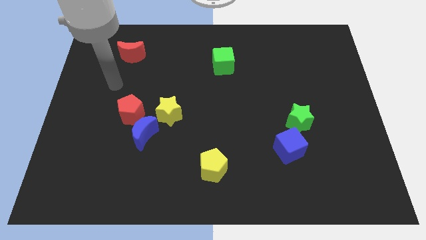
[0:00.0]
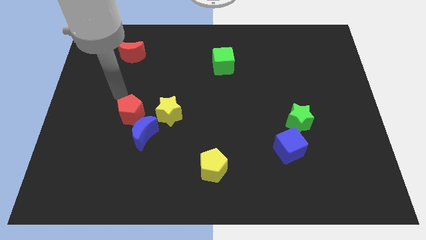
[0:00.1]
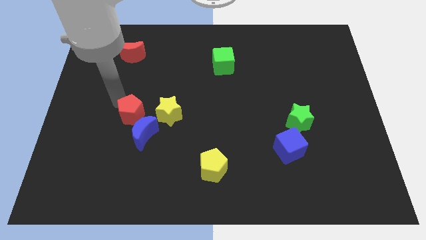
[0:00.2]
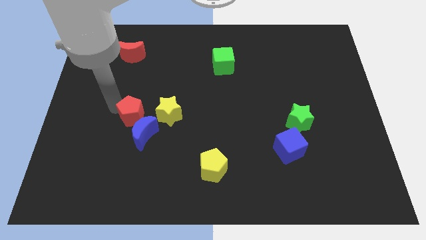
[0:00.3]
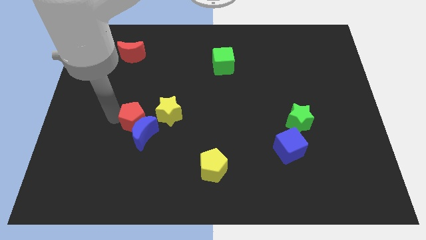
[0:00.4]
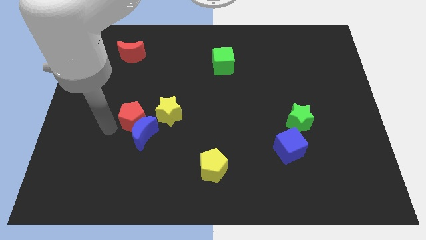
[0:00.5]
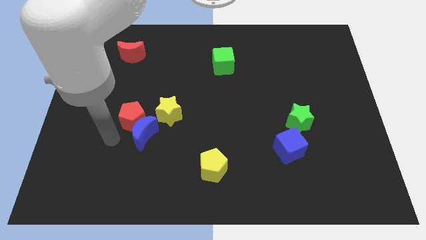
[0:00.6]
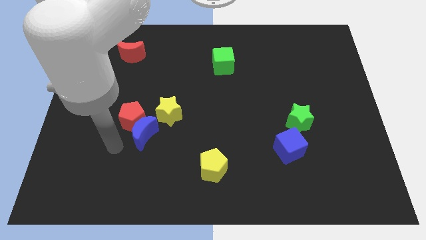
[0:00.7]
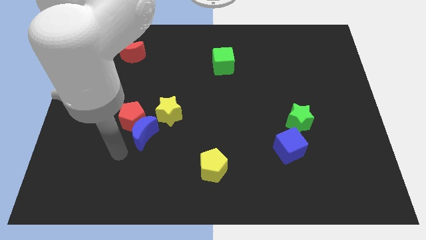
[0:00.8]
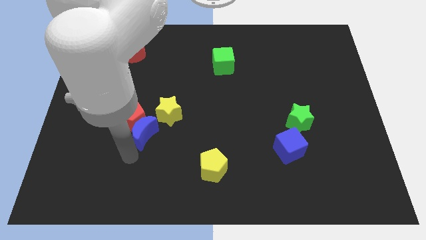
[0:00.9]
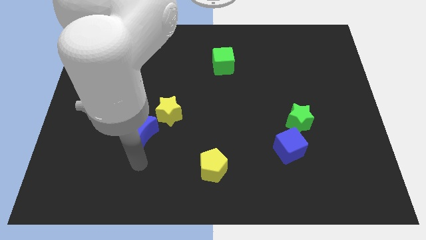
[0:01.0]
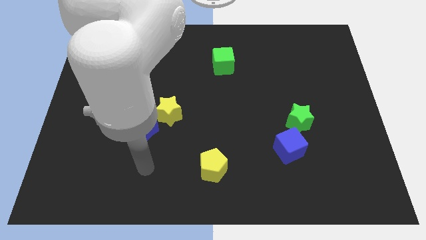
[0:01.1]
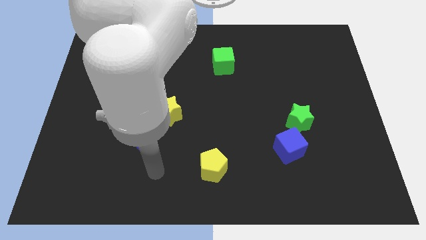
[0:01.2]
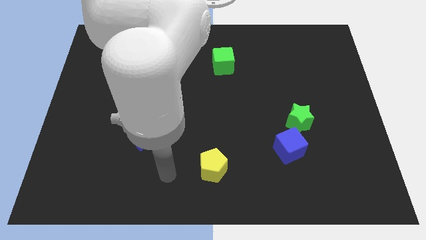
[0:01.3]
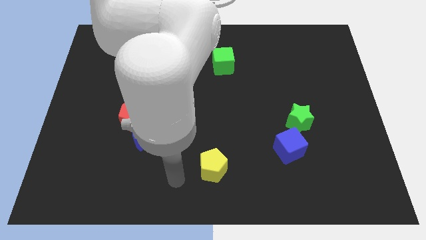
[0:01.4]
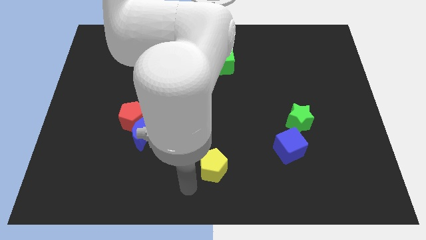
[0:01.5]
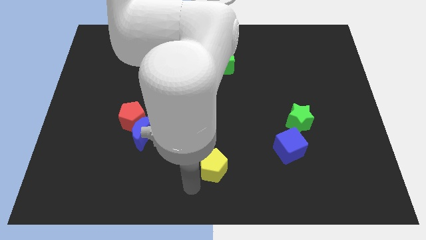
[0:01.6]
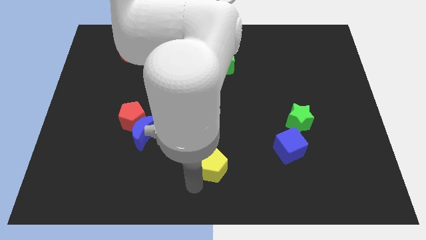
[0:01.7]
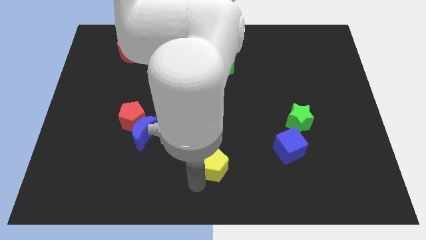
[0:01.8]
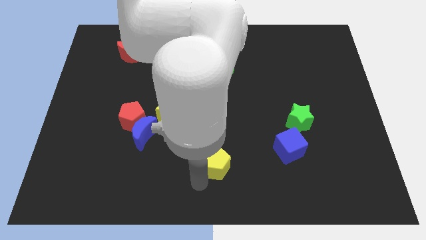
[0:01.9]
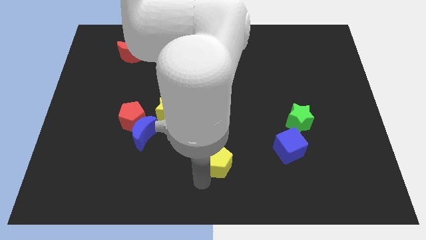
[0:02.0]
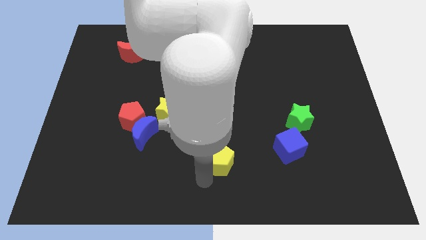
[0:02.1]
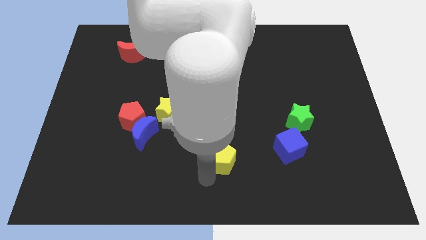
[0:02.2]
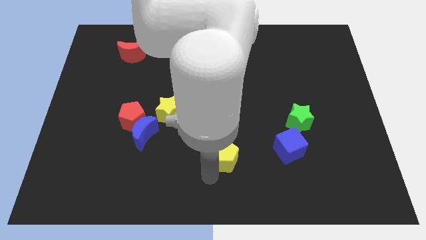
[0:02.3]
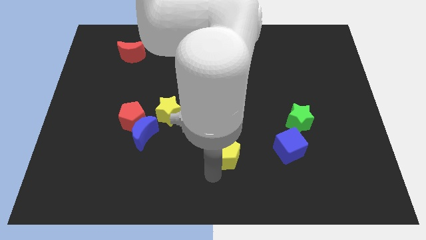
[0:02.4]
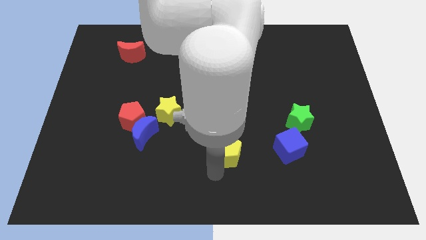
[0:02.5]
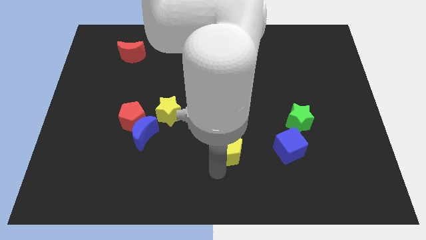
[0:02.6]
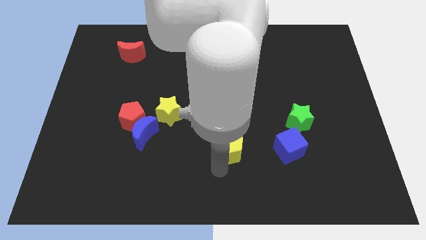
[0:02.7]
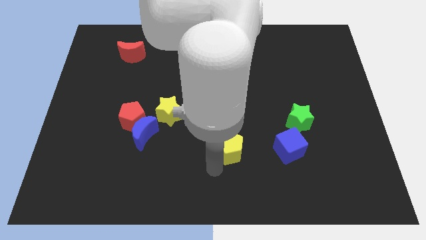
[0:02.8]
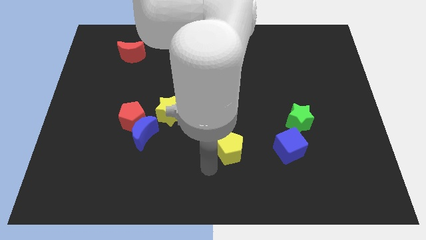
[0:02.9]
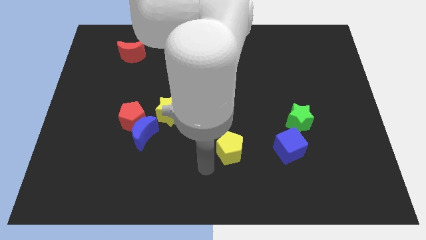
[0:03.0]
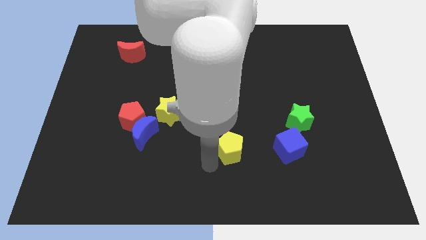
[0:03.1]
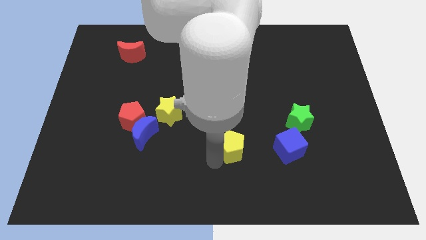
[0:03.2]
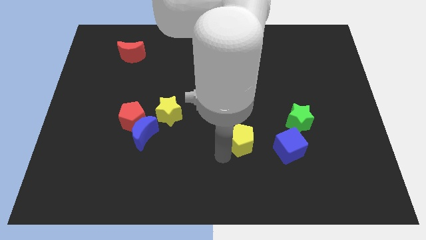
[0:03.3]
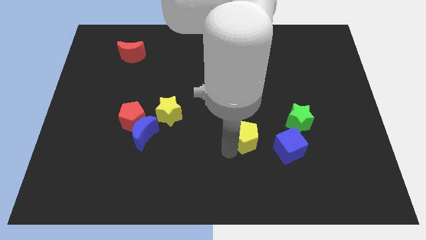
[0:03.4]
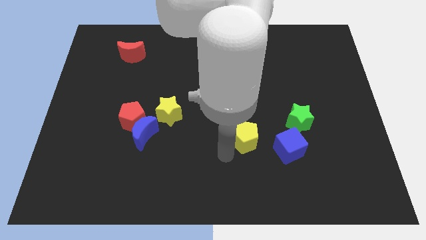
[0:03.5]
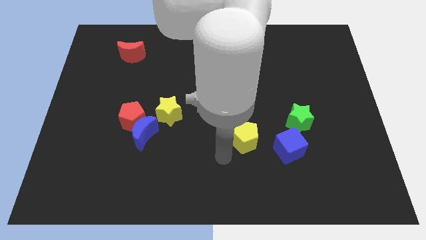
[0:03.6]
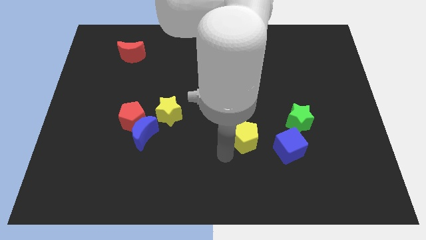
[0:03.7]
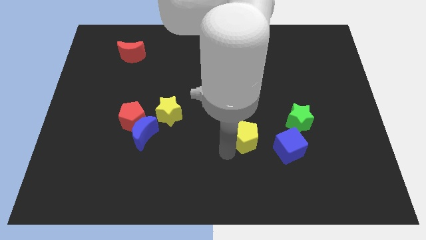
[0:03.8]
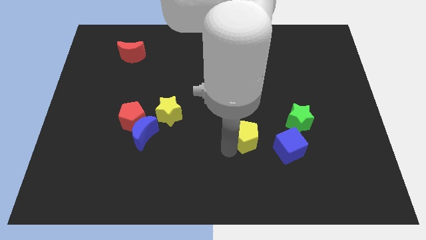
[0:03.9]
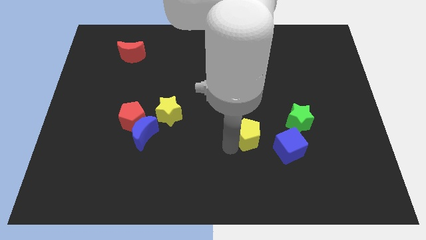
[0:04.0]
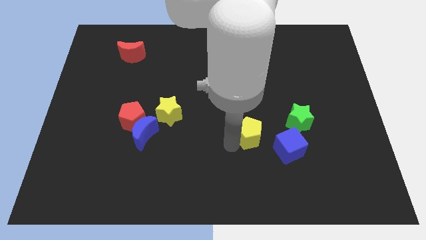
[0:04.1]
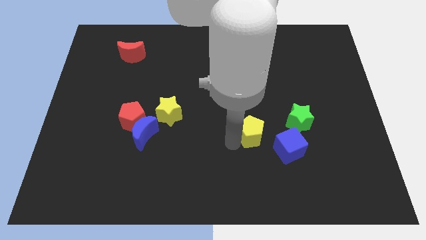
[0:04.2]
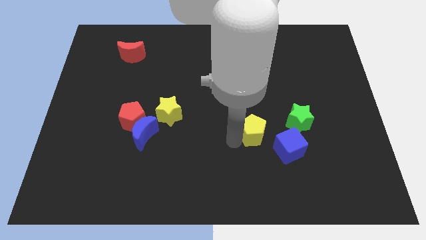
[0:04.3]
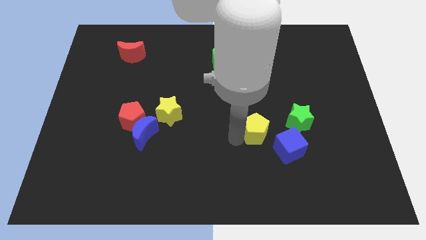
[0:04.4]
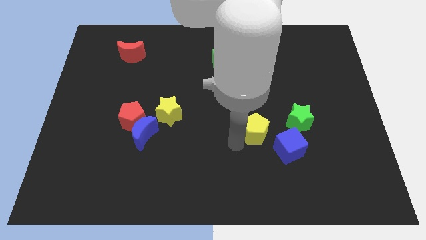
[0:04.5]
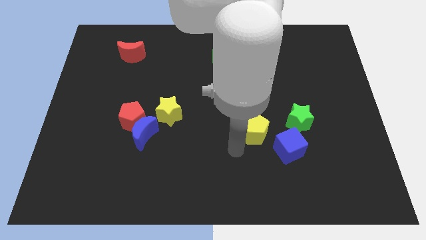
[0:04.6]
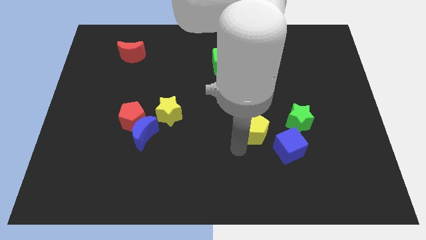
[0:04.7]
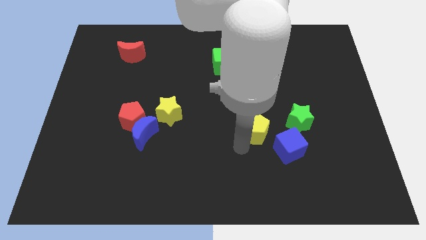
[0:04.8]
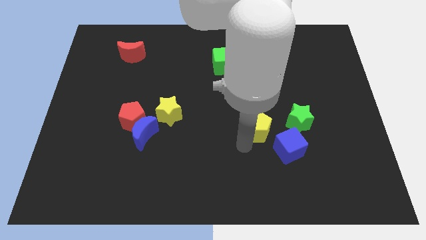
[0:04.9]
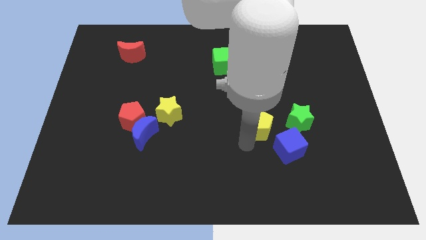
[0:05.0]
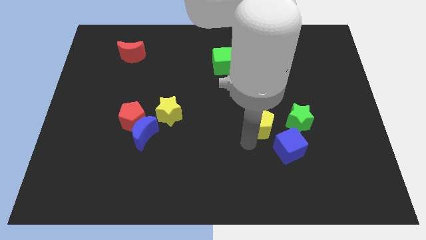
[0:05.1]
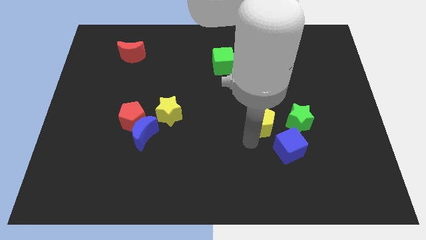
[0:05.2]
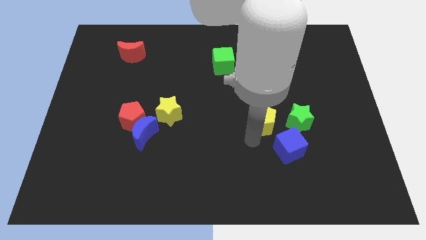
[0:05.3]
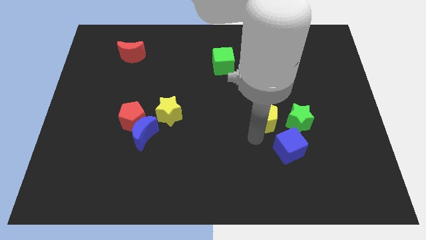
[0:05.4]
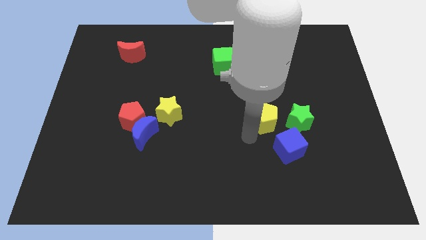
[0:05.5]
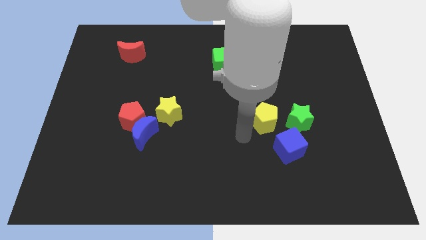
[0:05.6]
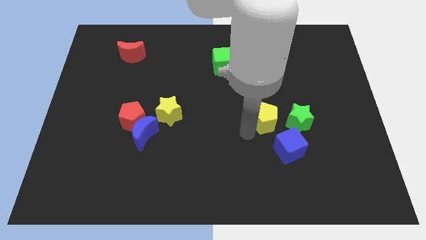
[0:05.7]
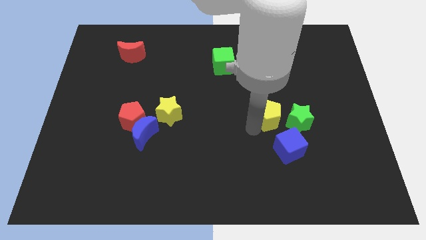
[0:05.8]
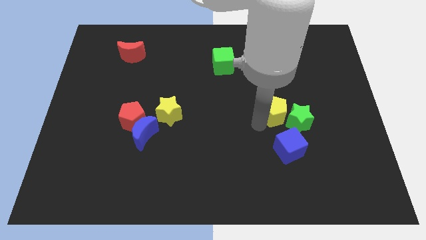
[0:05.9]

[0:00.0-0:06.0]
push the yellow pentagon upwards and then right

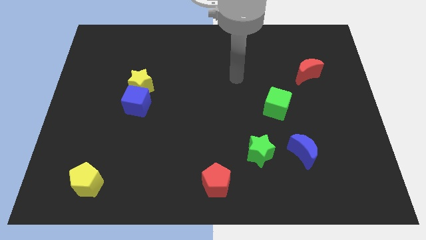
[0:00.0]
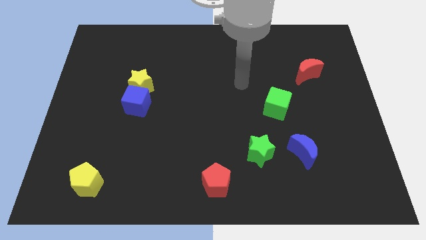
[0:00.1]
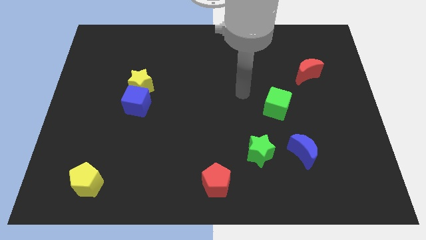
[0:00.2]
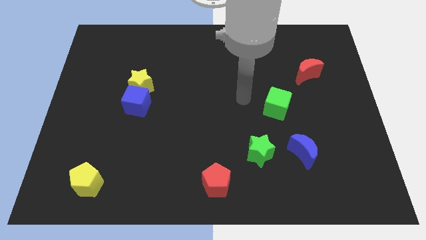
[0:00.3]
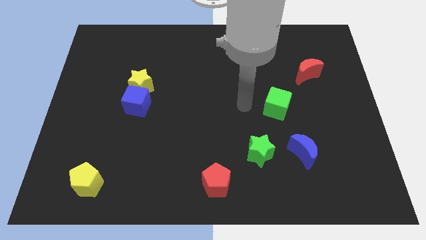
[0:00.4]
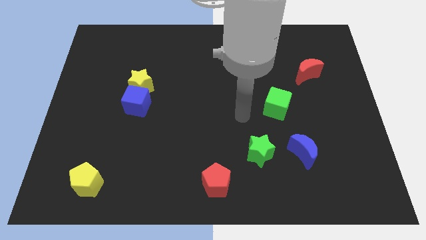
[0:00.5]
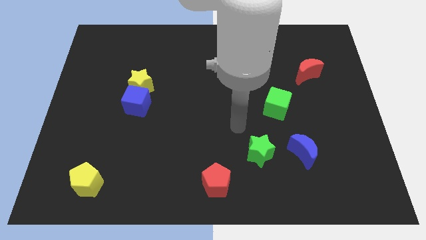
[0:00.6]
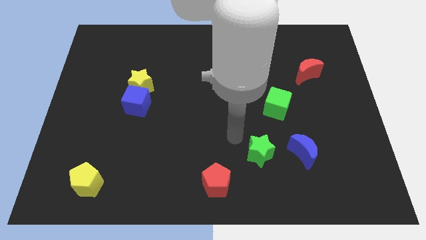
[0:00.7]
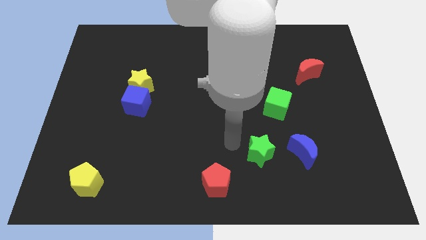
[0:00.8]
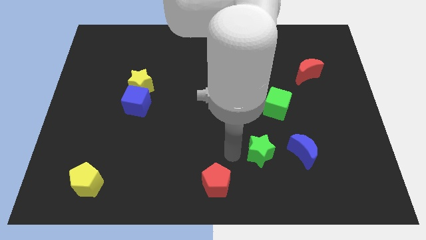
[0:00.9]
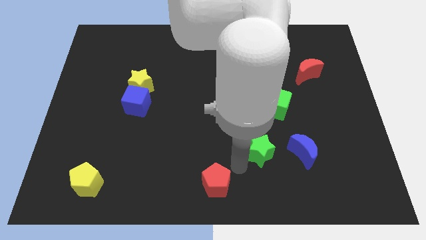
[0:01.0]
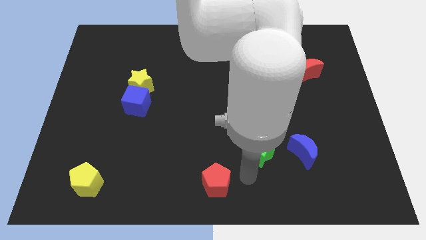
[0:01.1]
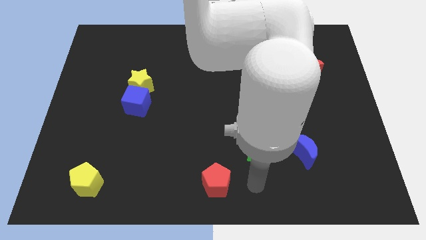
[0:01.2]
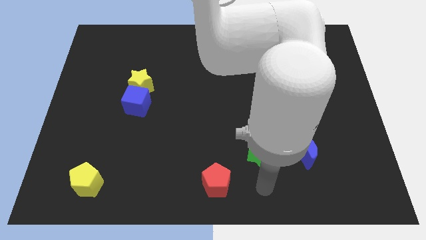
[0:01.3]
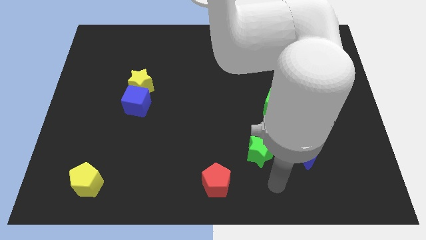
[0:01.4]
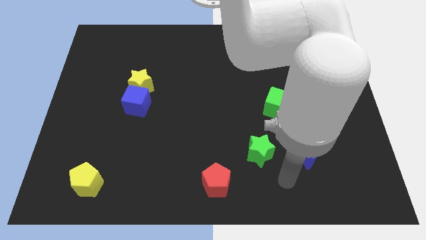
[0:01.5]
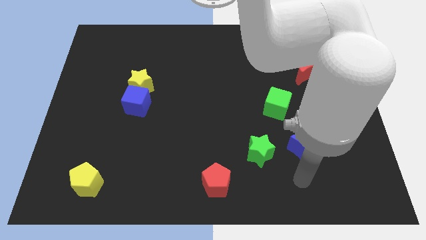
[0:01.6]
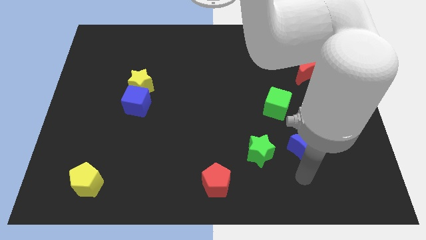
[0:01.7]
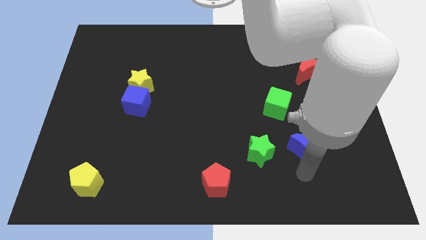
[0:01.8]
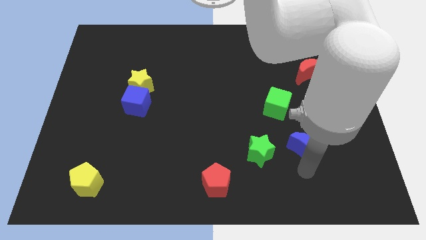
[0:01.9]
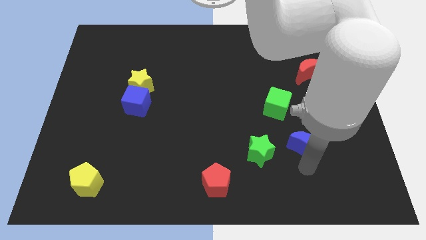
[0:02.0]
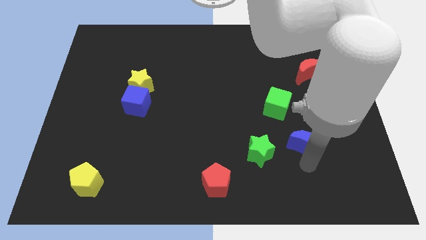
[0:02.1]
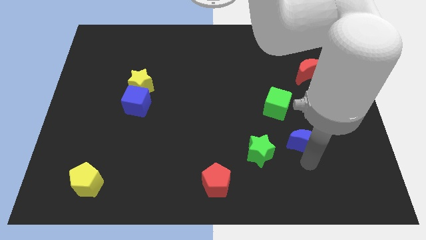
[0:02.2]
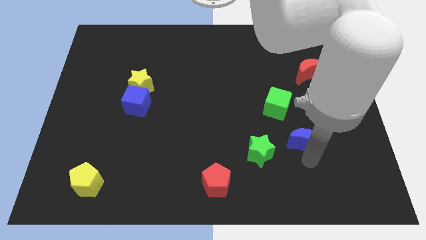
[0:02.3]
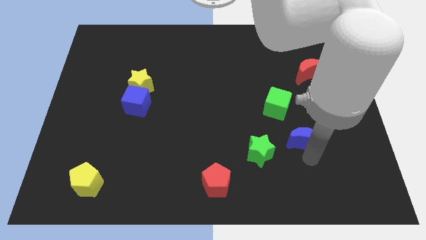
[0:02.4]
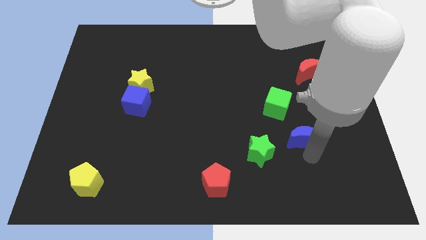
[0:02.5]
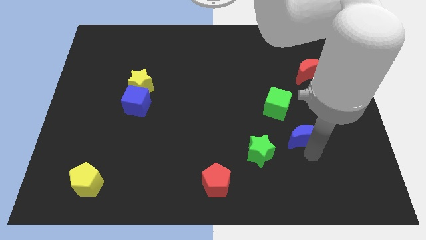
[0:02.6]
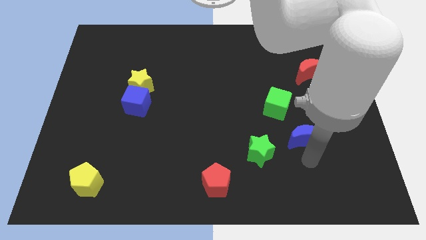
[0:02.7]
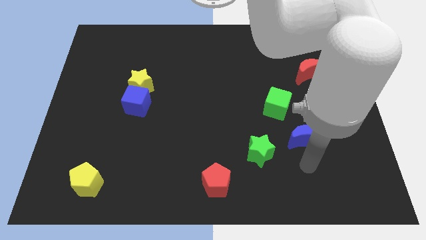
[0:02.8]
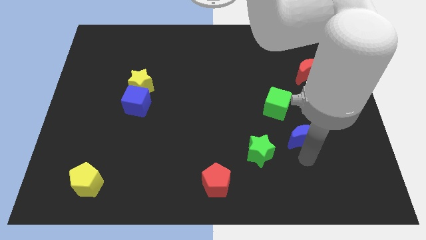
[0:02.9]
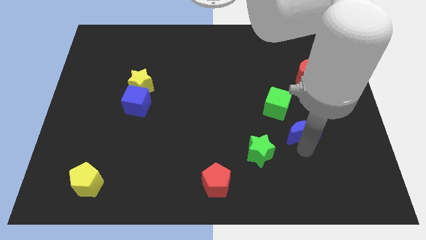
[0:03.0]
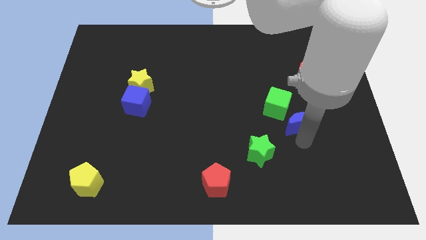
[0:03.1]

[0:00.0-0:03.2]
slightly slide the blue moon up
